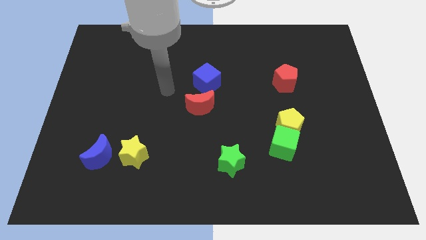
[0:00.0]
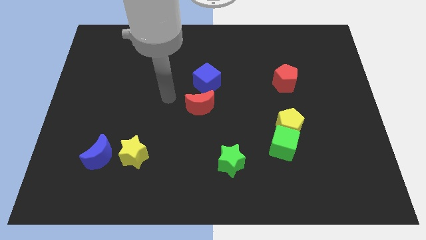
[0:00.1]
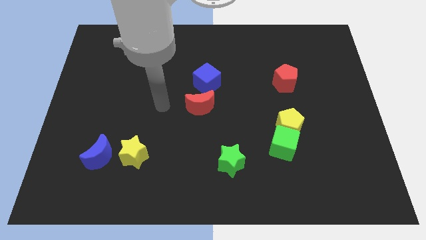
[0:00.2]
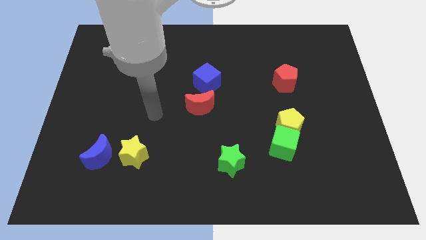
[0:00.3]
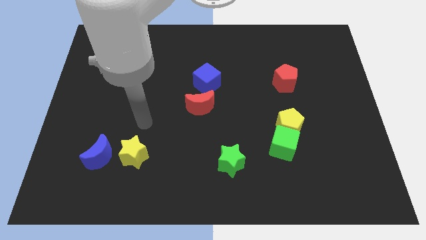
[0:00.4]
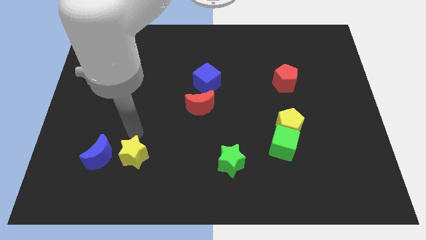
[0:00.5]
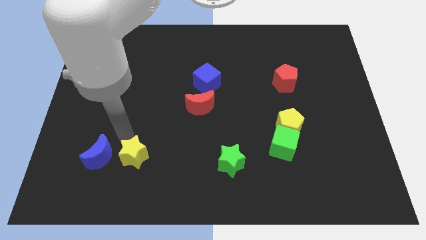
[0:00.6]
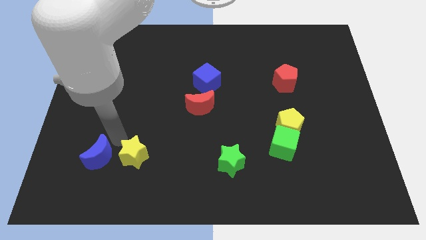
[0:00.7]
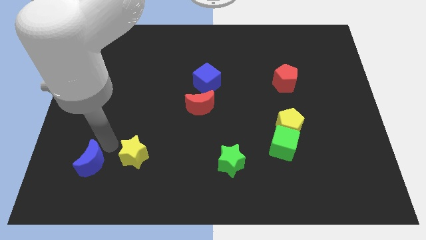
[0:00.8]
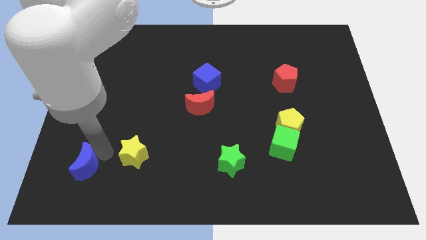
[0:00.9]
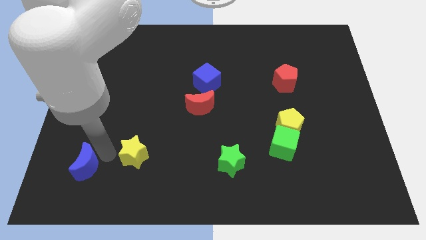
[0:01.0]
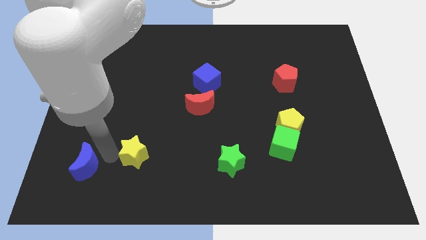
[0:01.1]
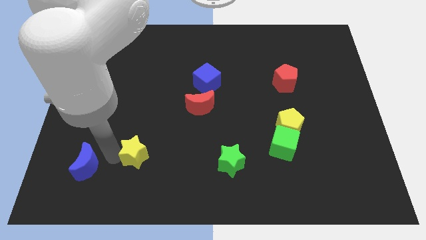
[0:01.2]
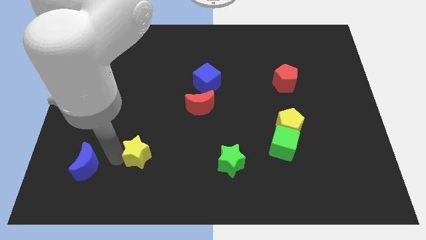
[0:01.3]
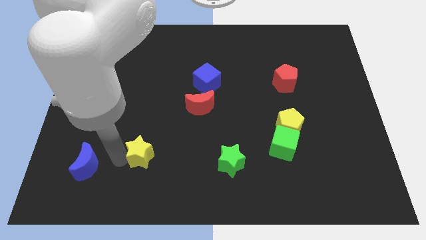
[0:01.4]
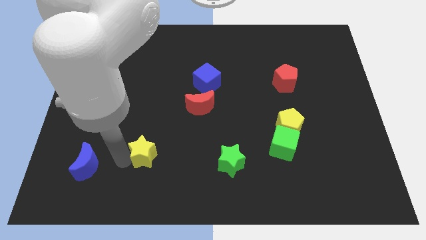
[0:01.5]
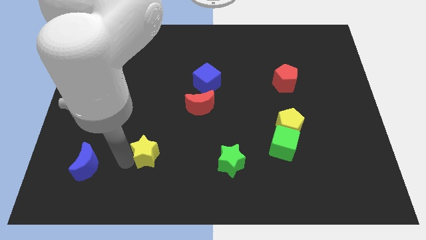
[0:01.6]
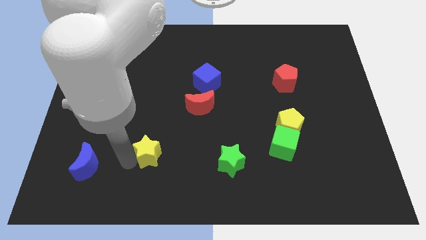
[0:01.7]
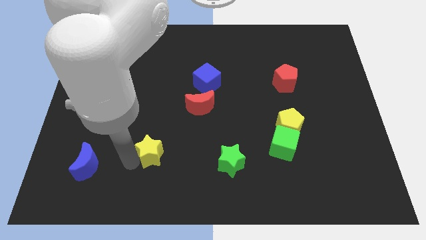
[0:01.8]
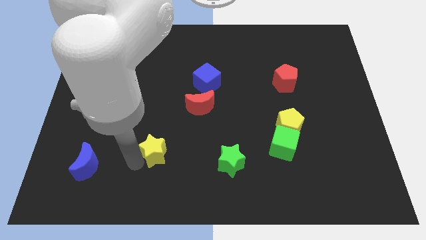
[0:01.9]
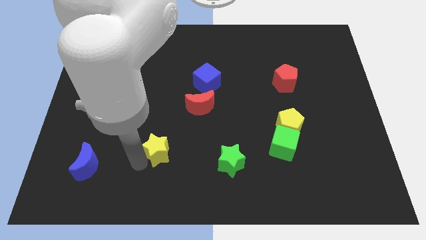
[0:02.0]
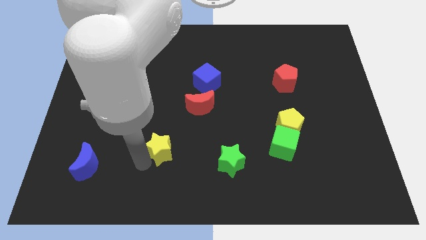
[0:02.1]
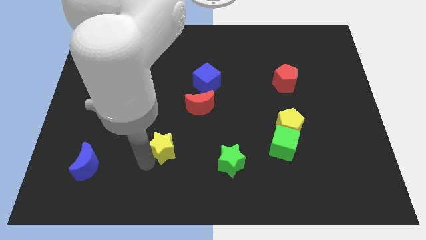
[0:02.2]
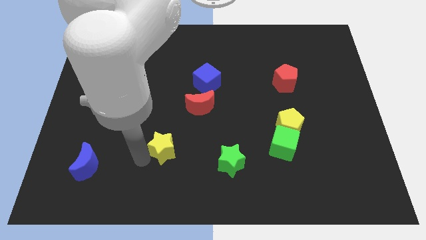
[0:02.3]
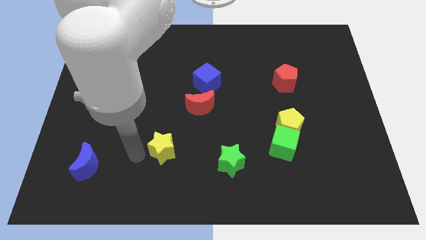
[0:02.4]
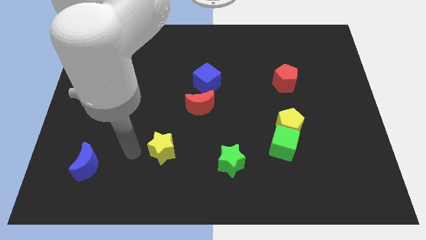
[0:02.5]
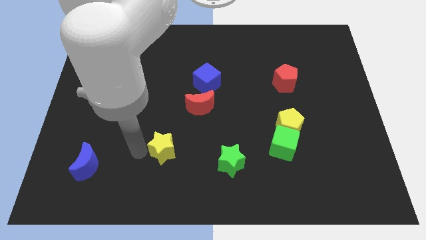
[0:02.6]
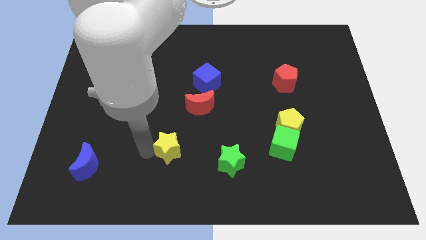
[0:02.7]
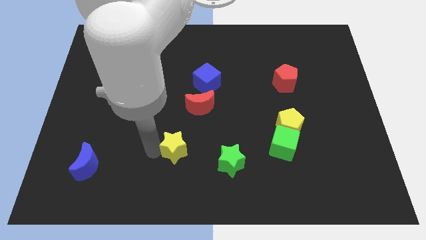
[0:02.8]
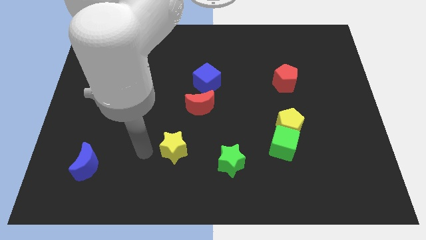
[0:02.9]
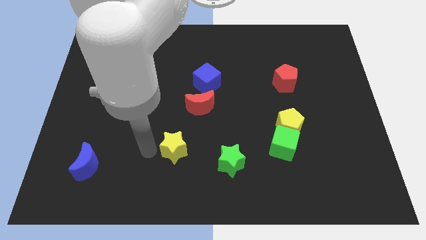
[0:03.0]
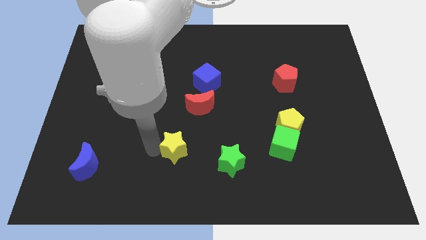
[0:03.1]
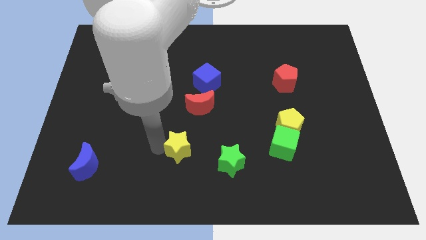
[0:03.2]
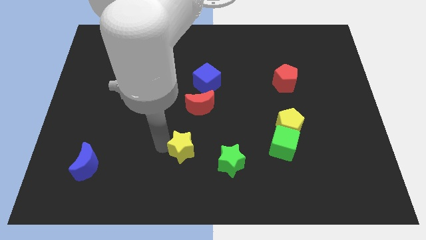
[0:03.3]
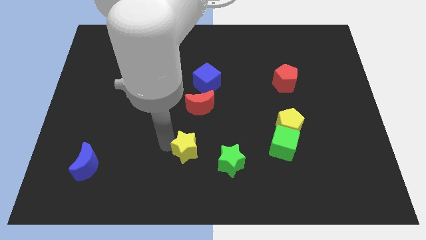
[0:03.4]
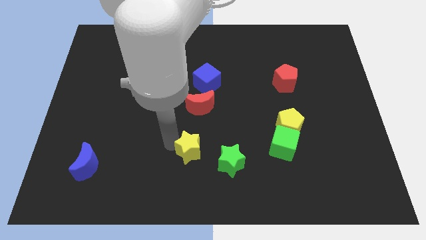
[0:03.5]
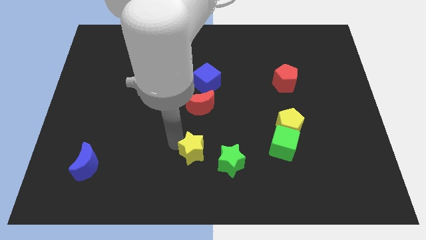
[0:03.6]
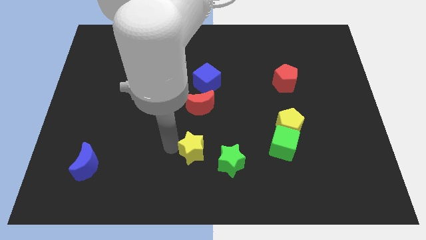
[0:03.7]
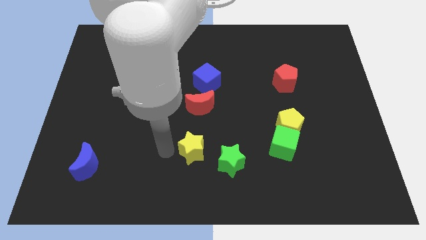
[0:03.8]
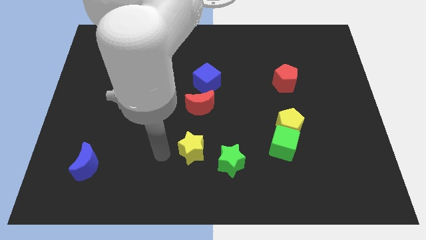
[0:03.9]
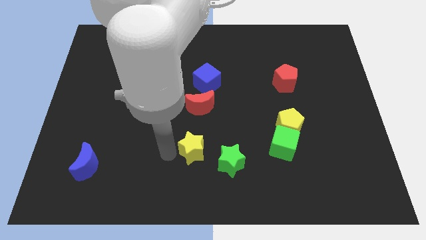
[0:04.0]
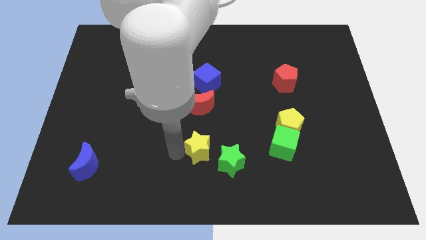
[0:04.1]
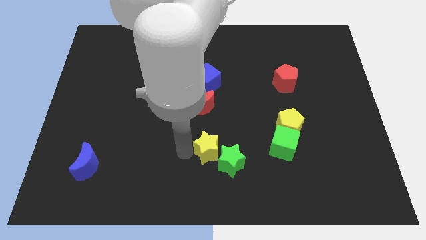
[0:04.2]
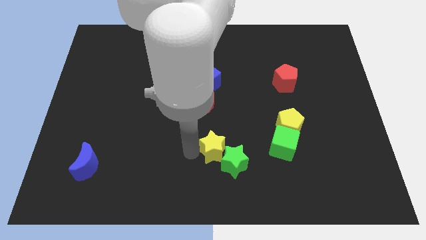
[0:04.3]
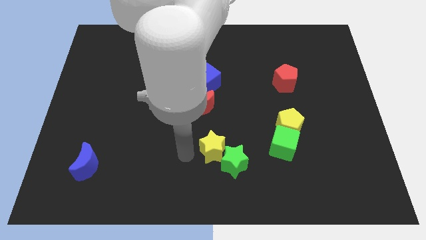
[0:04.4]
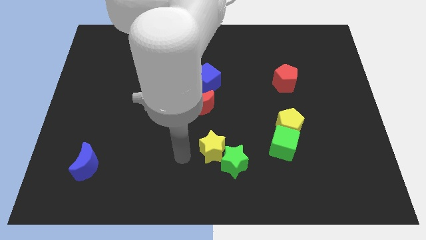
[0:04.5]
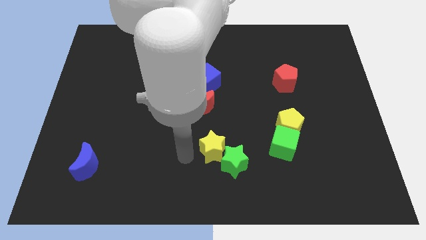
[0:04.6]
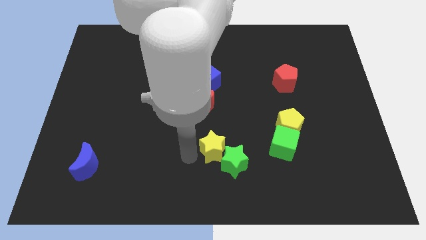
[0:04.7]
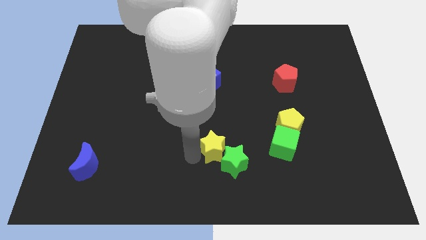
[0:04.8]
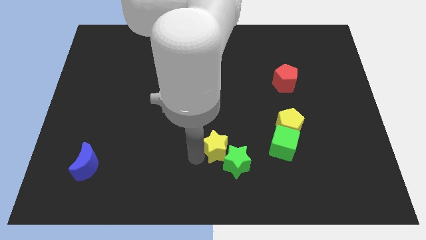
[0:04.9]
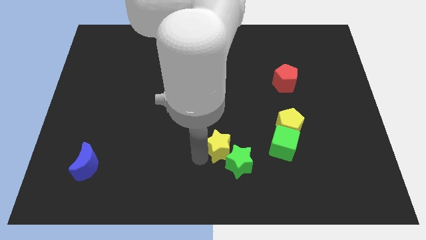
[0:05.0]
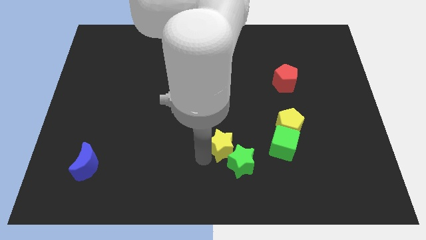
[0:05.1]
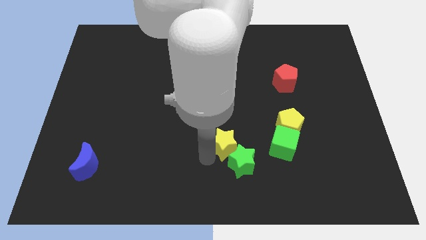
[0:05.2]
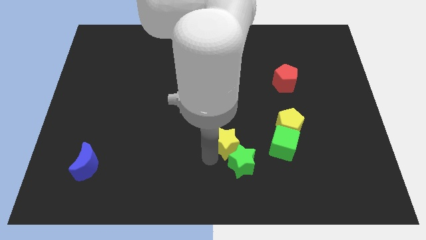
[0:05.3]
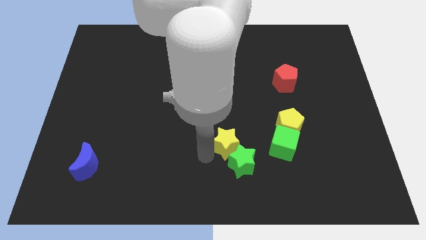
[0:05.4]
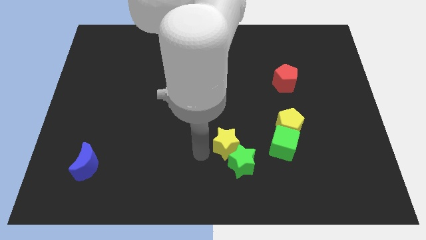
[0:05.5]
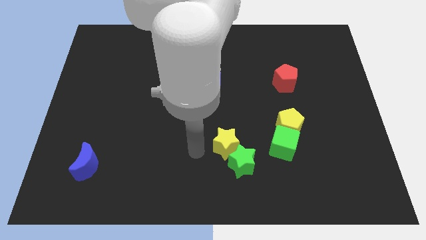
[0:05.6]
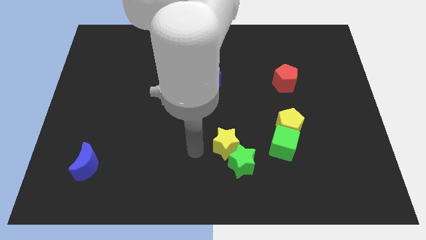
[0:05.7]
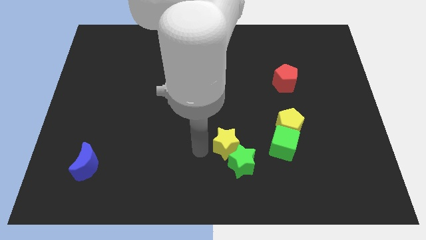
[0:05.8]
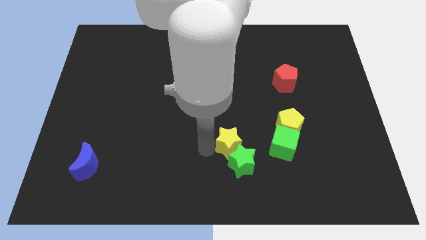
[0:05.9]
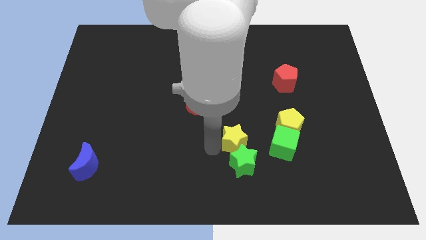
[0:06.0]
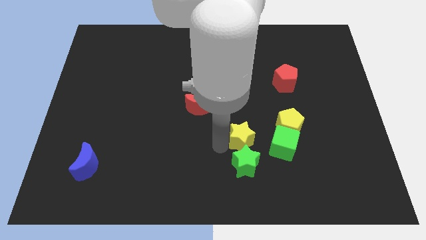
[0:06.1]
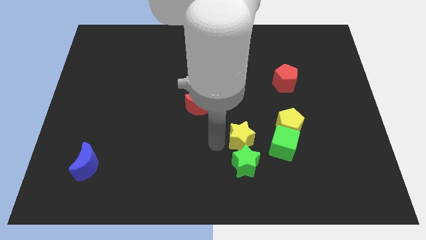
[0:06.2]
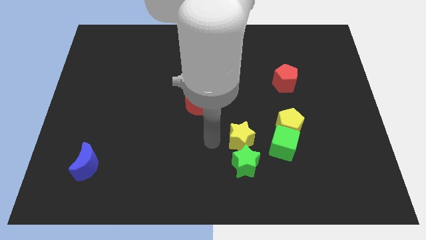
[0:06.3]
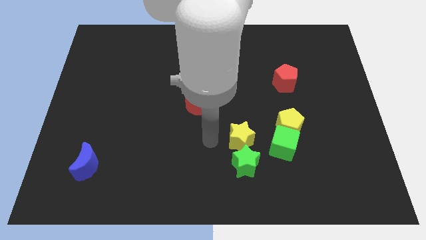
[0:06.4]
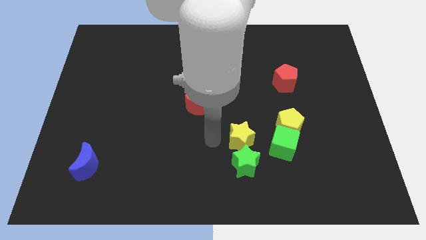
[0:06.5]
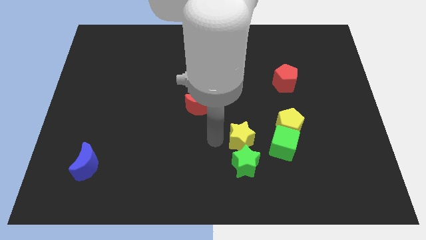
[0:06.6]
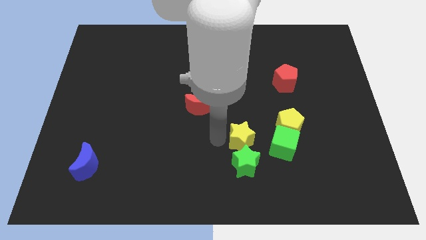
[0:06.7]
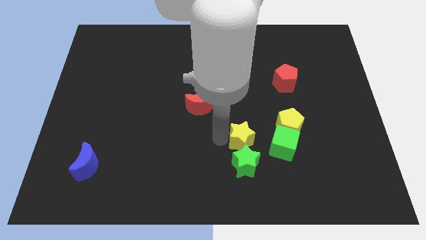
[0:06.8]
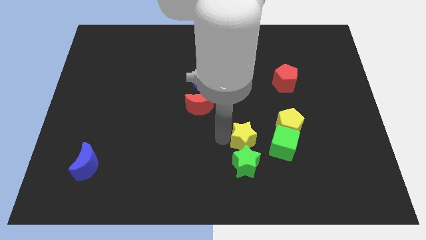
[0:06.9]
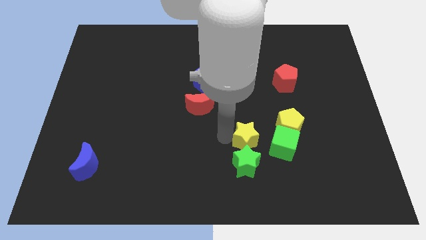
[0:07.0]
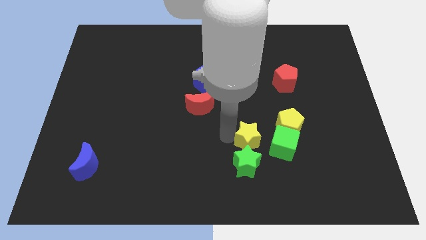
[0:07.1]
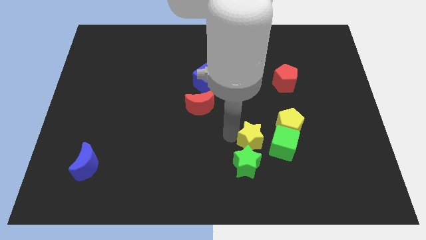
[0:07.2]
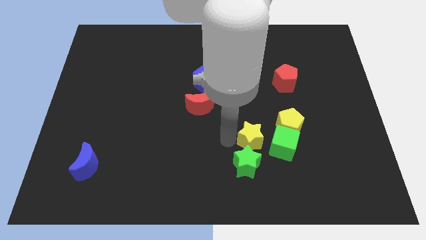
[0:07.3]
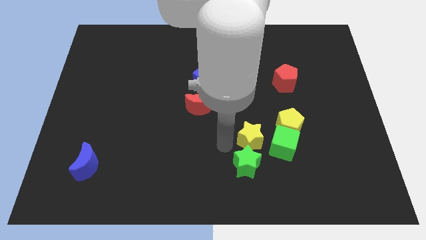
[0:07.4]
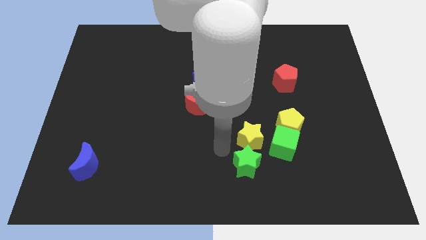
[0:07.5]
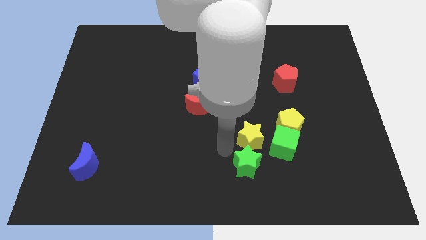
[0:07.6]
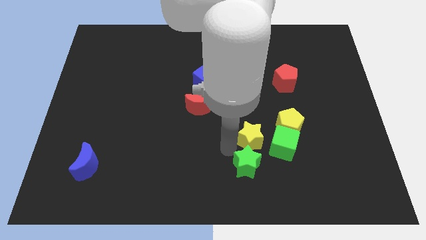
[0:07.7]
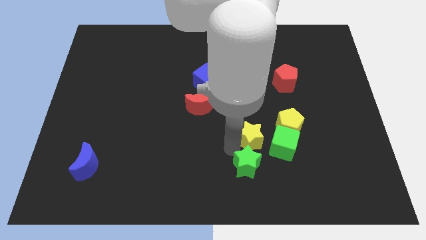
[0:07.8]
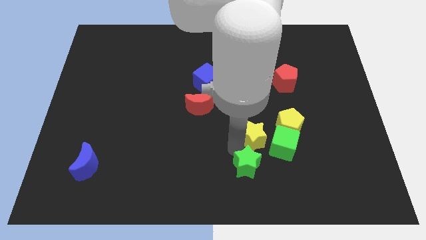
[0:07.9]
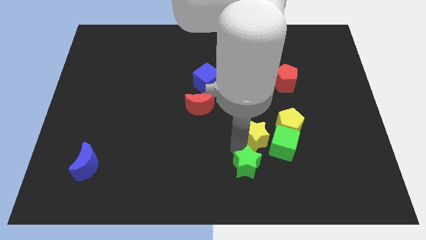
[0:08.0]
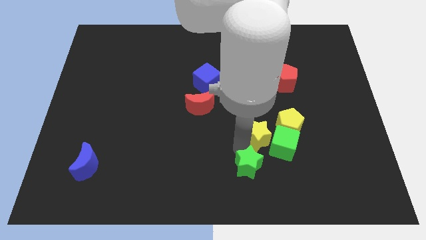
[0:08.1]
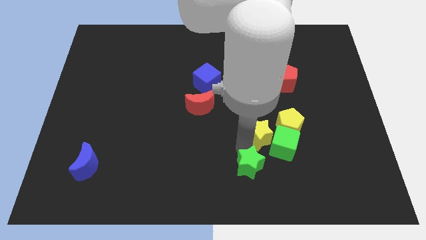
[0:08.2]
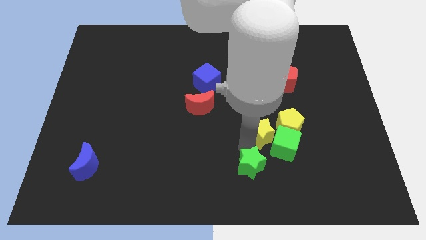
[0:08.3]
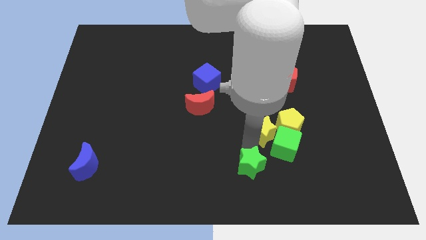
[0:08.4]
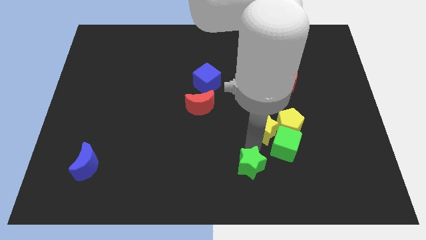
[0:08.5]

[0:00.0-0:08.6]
push the yellow star close to the yellow pentagon
